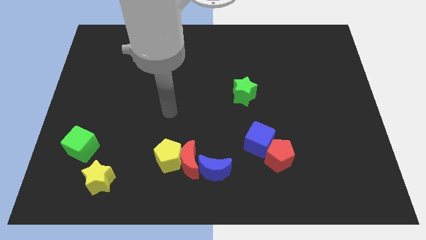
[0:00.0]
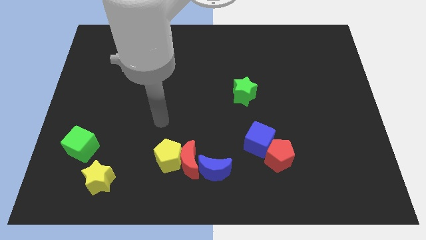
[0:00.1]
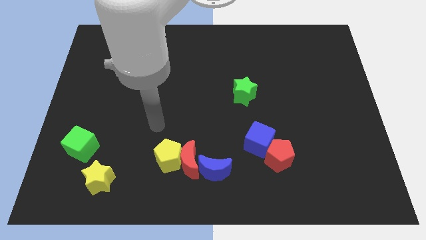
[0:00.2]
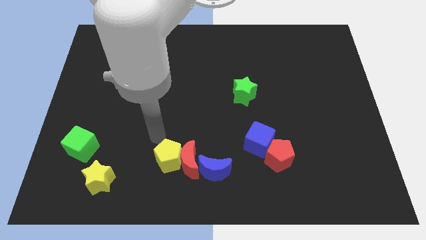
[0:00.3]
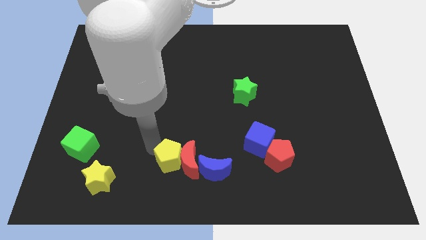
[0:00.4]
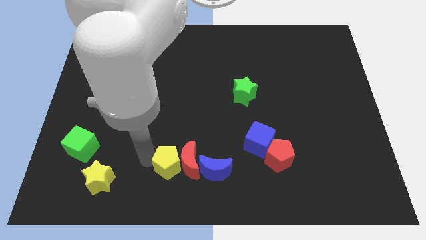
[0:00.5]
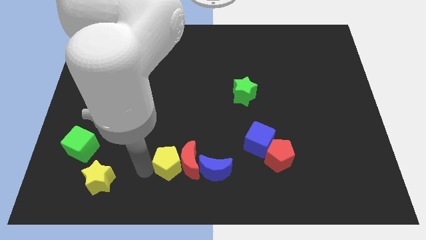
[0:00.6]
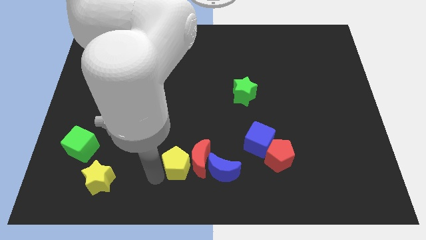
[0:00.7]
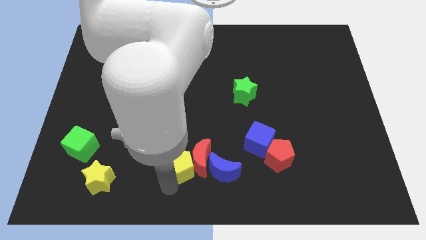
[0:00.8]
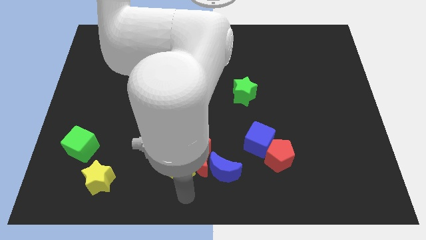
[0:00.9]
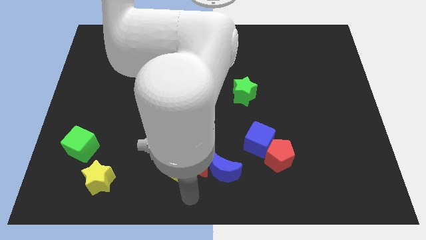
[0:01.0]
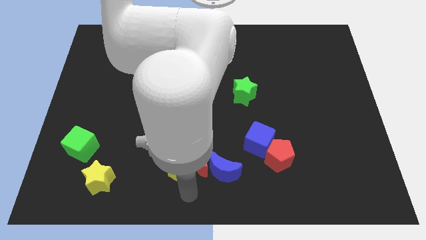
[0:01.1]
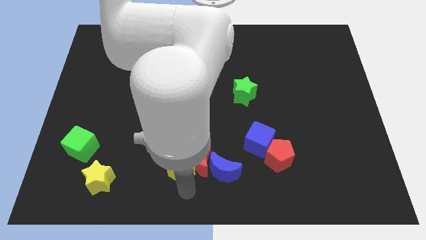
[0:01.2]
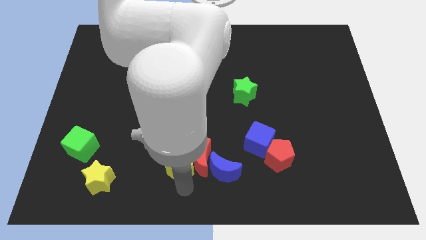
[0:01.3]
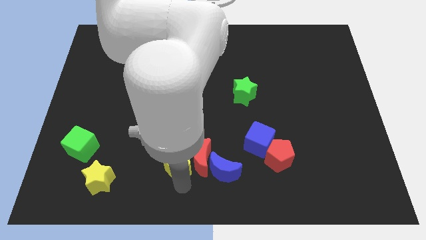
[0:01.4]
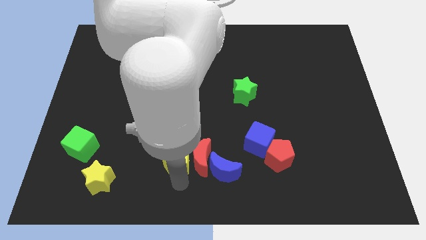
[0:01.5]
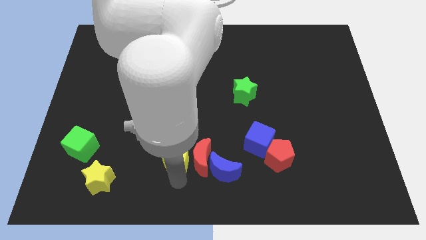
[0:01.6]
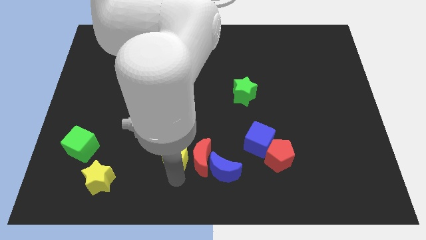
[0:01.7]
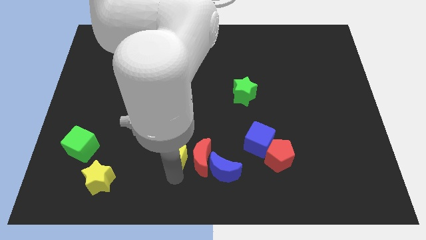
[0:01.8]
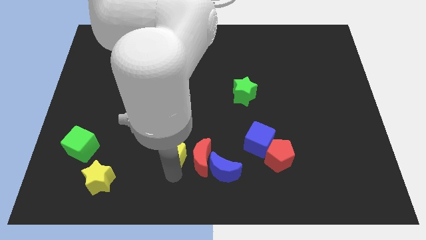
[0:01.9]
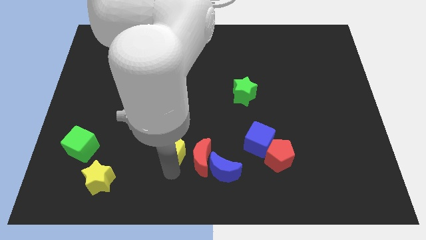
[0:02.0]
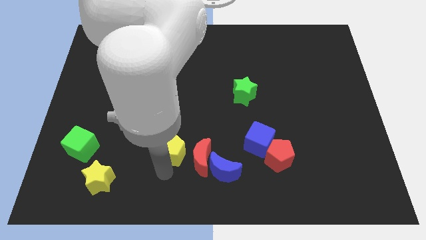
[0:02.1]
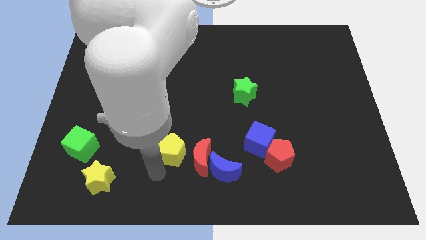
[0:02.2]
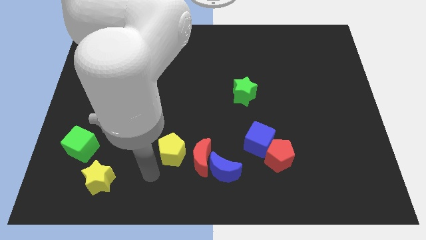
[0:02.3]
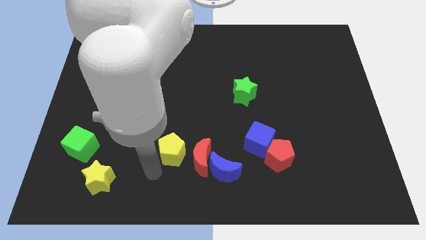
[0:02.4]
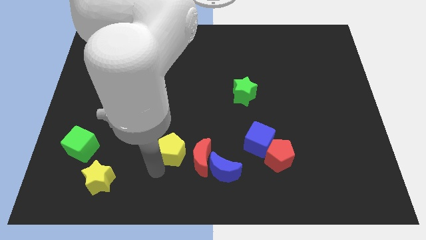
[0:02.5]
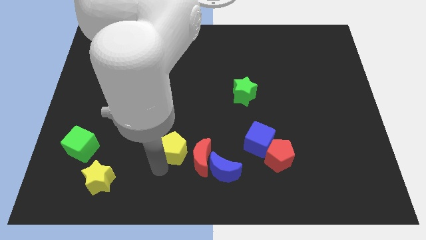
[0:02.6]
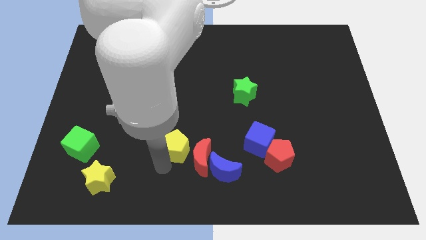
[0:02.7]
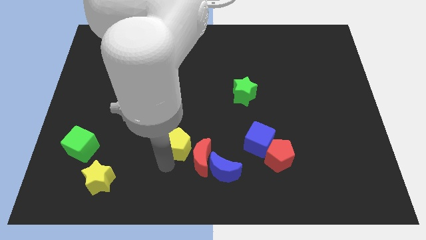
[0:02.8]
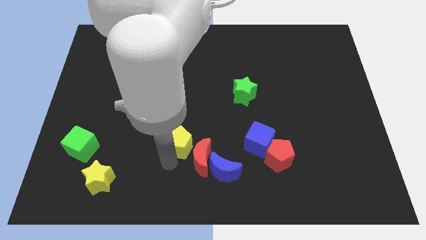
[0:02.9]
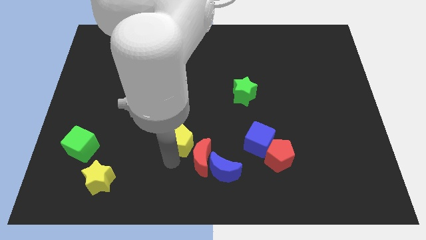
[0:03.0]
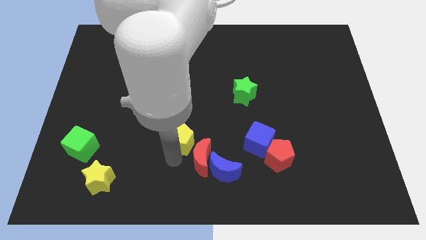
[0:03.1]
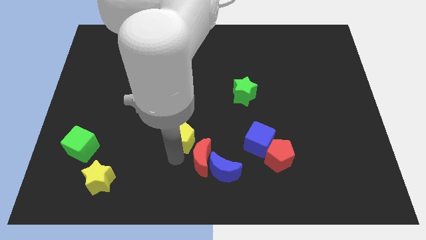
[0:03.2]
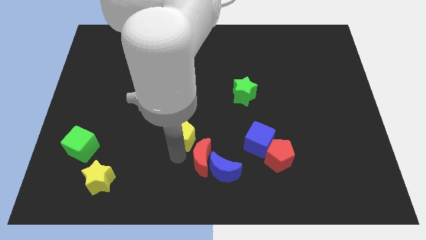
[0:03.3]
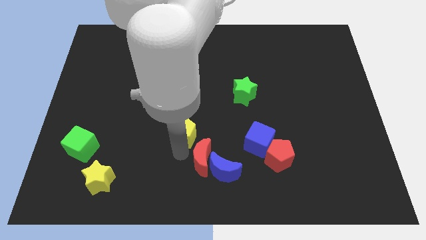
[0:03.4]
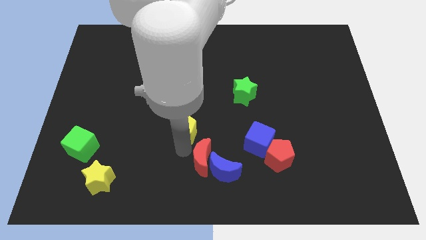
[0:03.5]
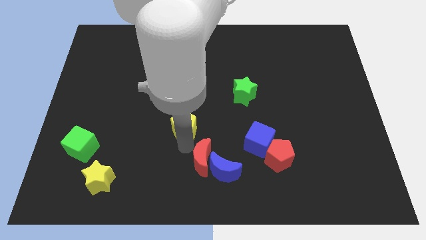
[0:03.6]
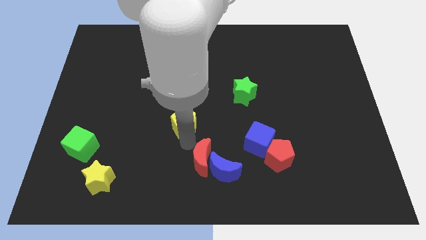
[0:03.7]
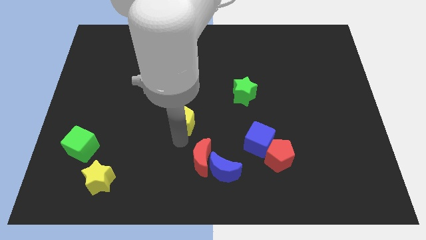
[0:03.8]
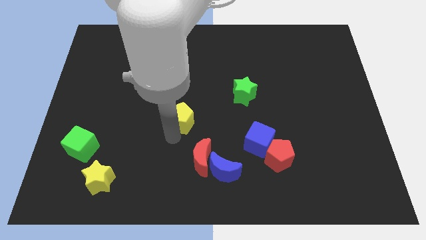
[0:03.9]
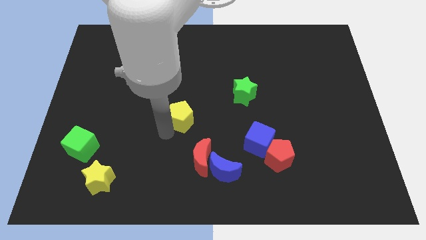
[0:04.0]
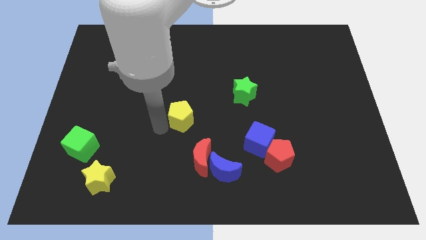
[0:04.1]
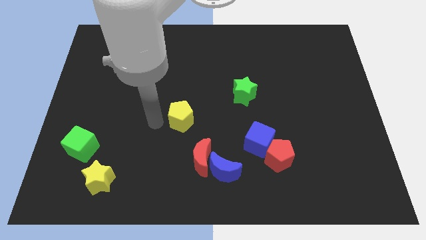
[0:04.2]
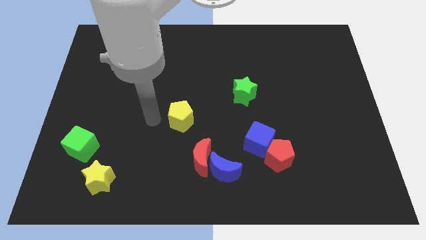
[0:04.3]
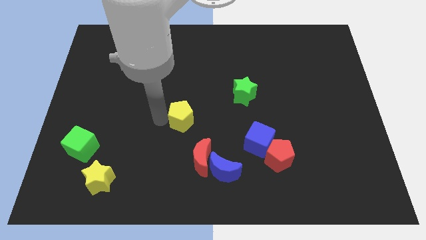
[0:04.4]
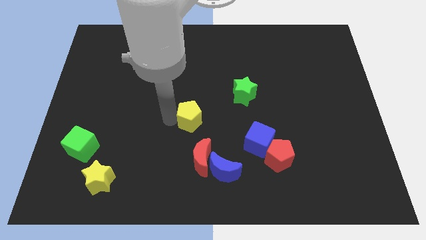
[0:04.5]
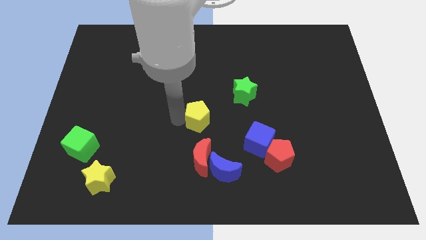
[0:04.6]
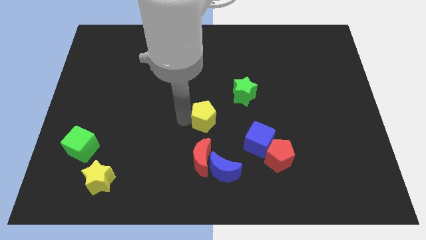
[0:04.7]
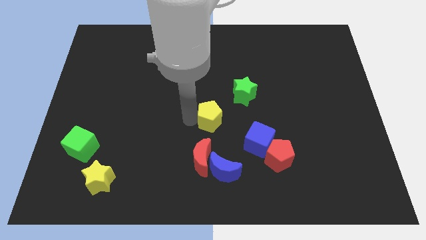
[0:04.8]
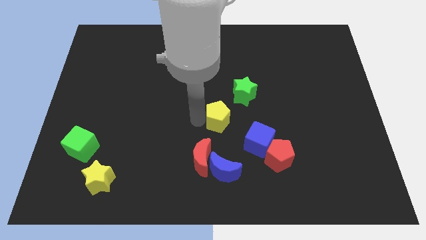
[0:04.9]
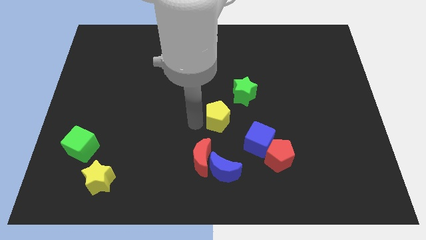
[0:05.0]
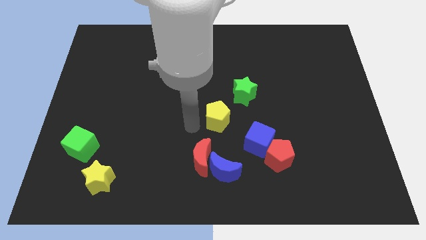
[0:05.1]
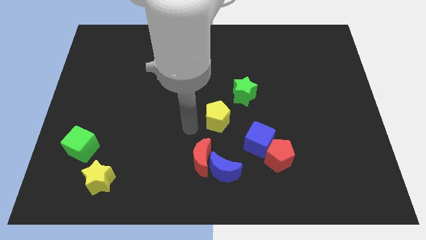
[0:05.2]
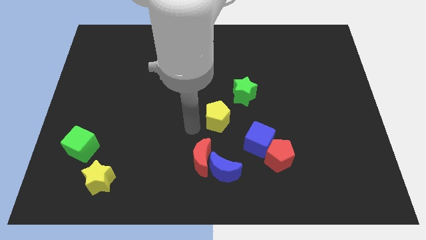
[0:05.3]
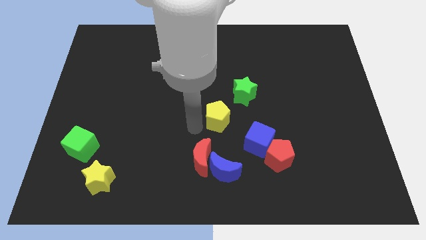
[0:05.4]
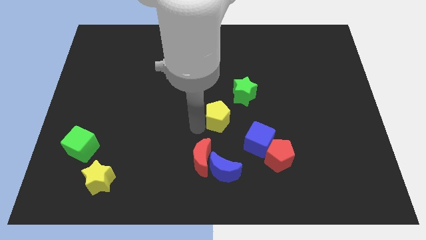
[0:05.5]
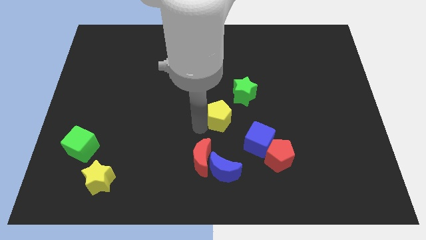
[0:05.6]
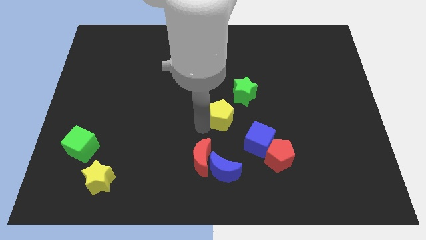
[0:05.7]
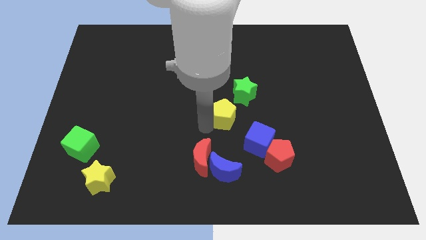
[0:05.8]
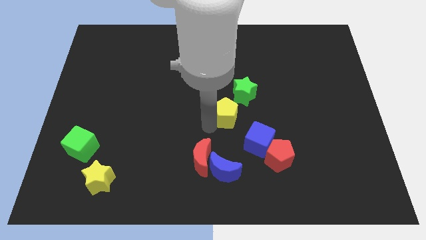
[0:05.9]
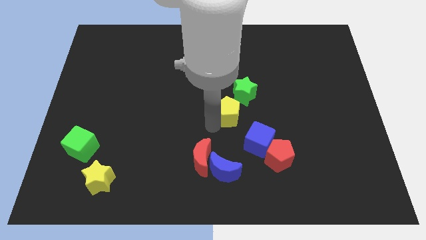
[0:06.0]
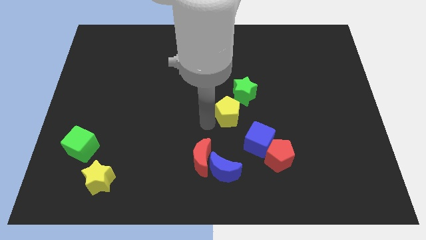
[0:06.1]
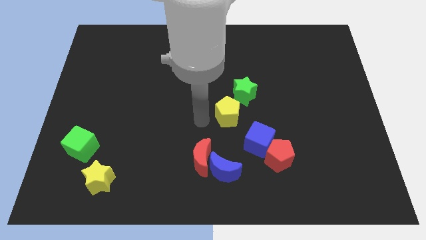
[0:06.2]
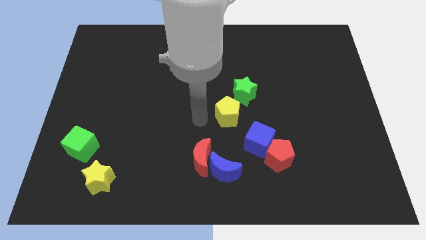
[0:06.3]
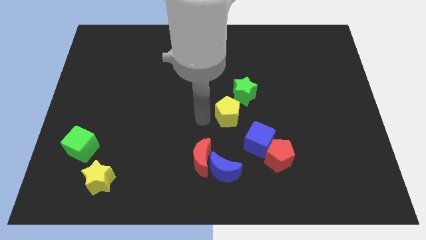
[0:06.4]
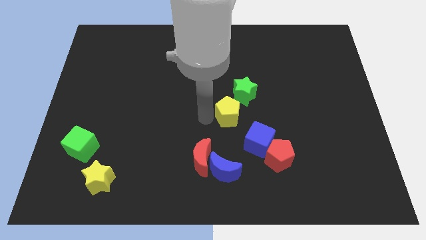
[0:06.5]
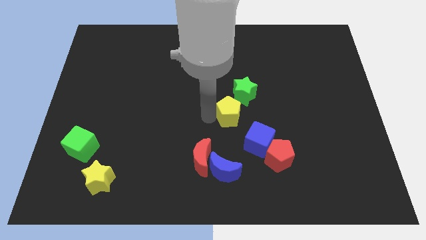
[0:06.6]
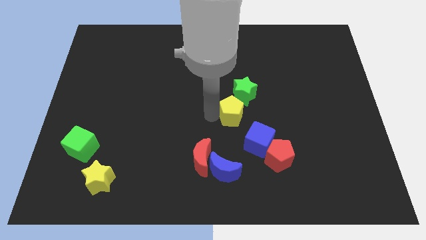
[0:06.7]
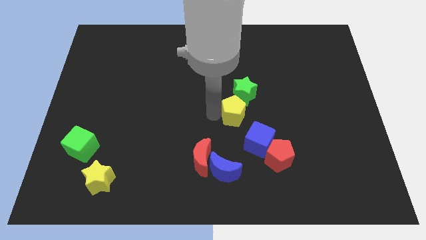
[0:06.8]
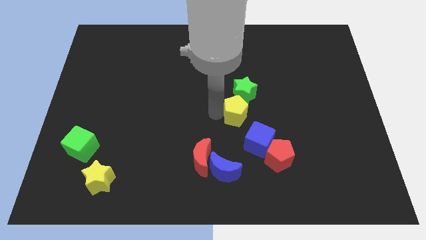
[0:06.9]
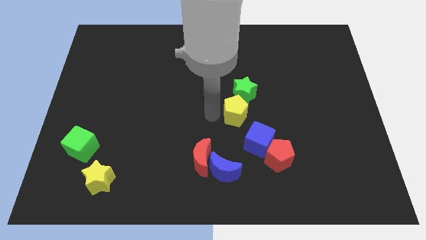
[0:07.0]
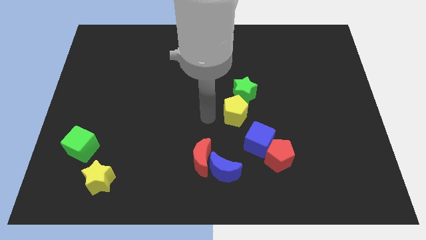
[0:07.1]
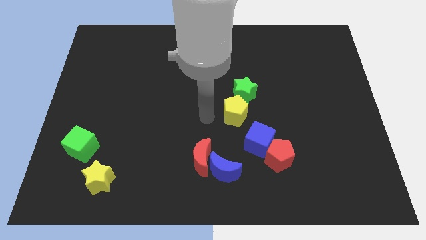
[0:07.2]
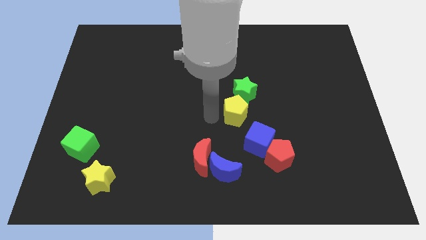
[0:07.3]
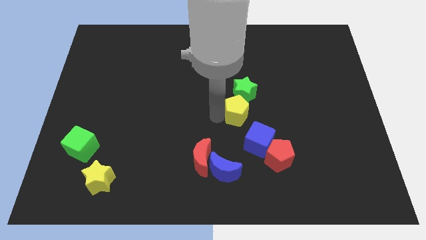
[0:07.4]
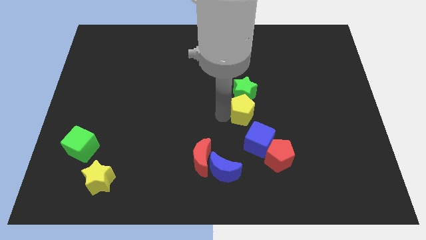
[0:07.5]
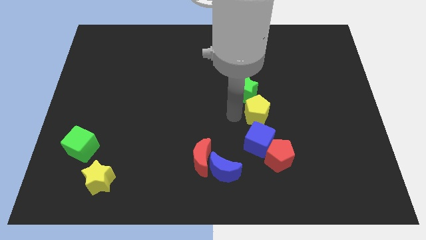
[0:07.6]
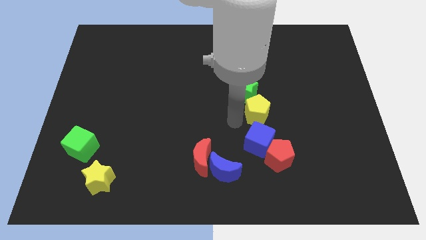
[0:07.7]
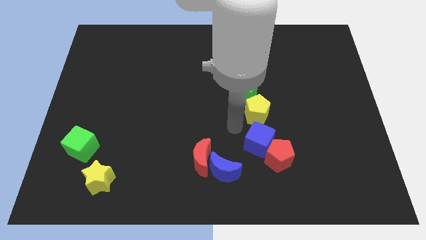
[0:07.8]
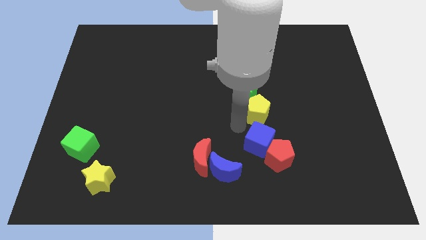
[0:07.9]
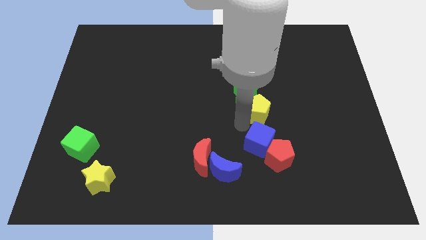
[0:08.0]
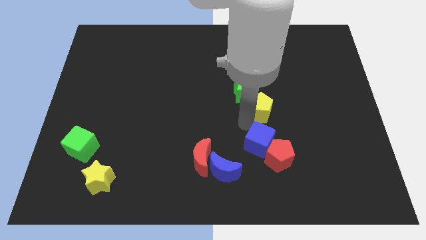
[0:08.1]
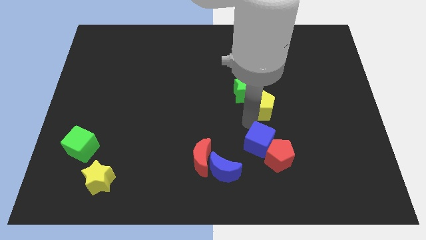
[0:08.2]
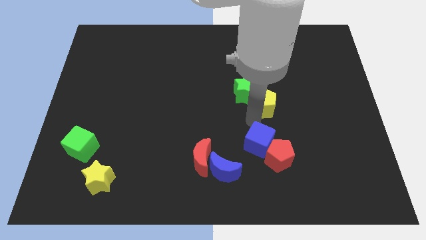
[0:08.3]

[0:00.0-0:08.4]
slide the yellow pentagon right of the green star
